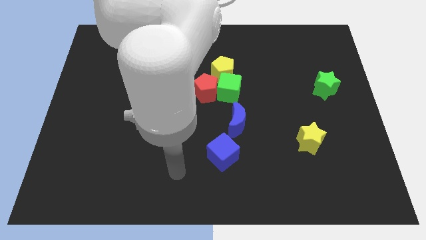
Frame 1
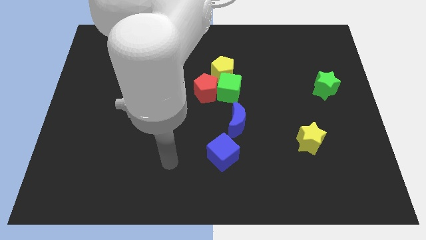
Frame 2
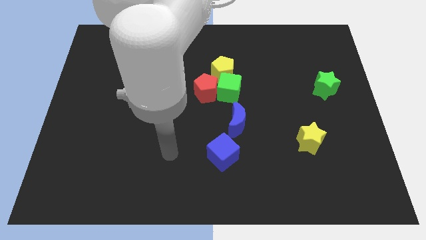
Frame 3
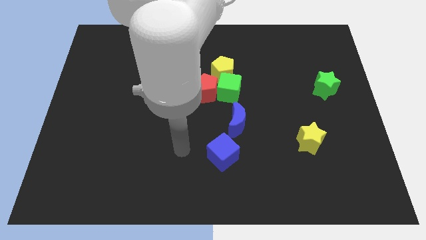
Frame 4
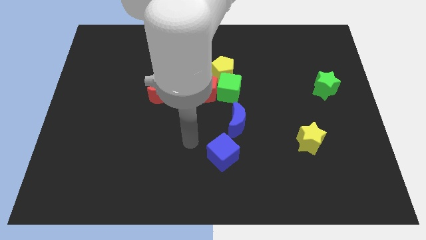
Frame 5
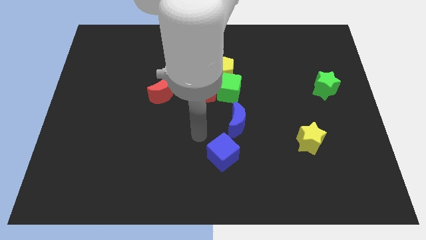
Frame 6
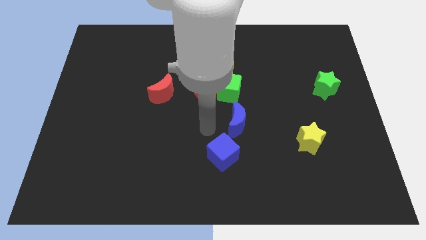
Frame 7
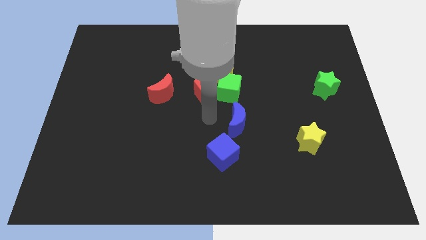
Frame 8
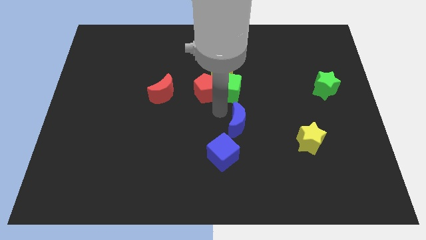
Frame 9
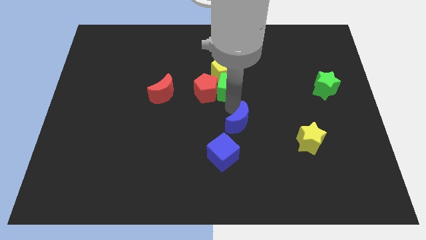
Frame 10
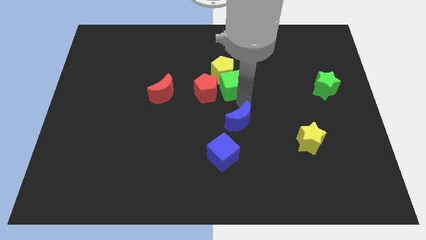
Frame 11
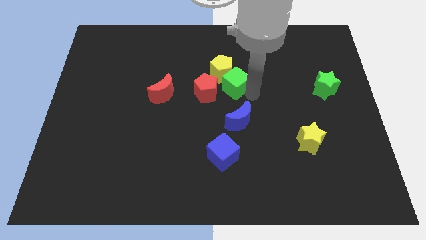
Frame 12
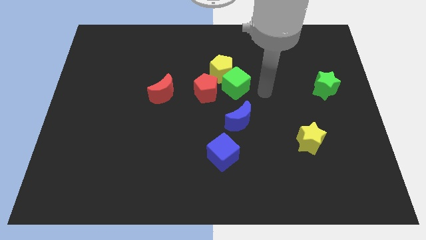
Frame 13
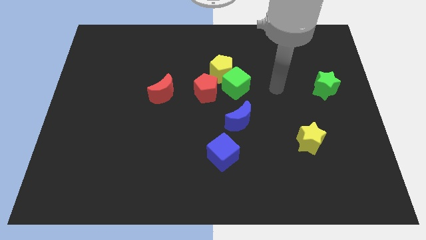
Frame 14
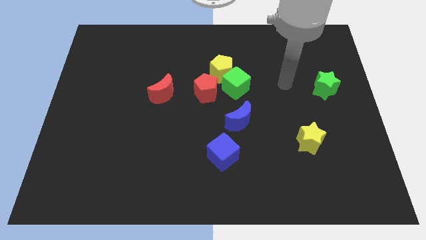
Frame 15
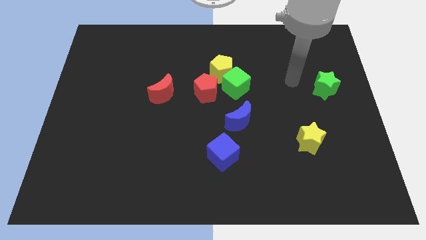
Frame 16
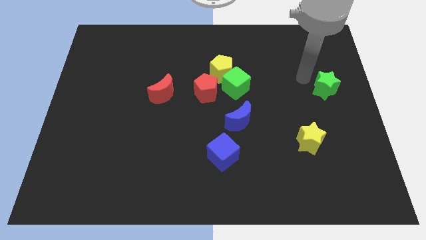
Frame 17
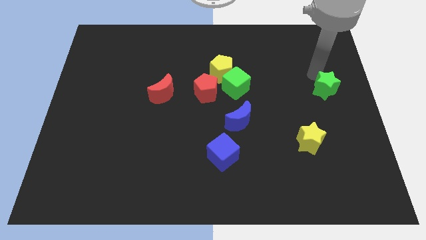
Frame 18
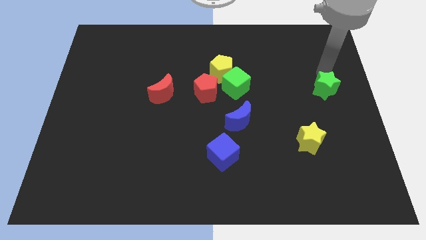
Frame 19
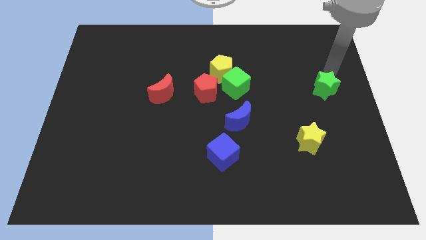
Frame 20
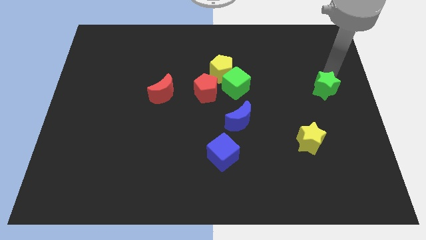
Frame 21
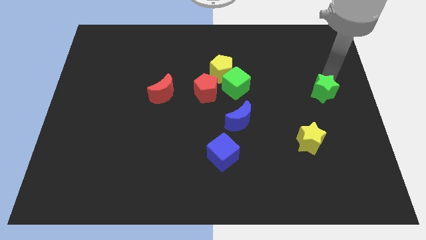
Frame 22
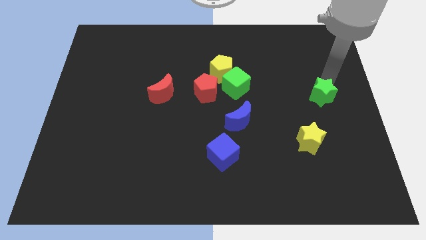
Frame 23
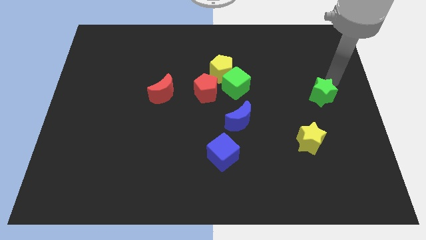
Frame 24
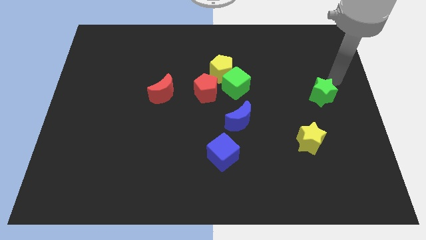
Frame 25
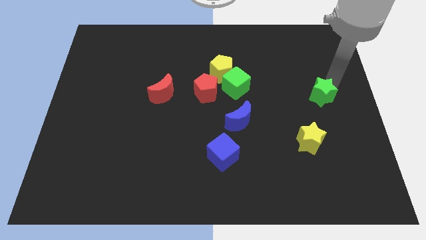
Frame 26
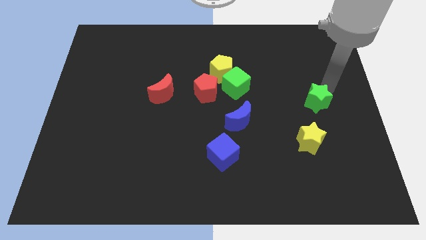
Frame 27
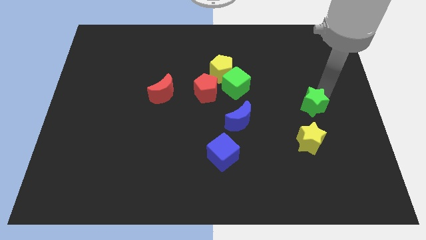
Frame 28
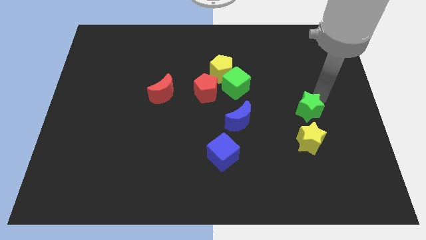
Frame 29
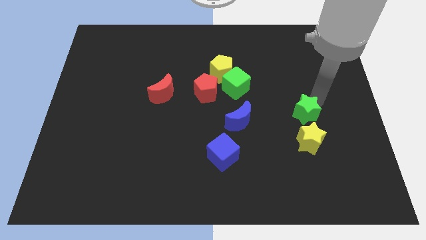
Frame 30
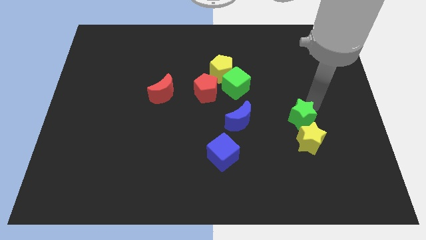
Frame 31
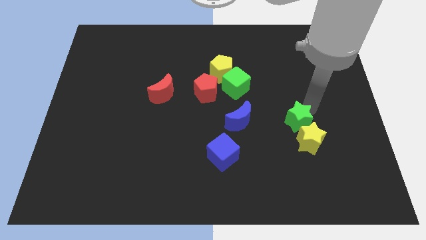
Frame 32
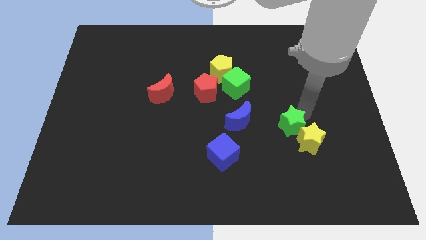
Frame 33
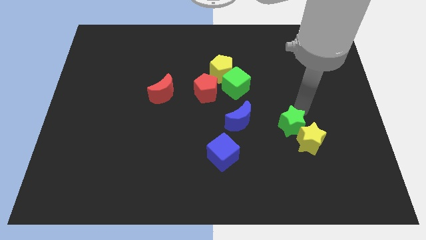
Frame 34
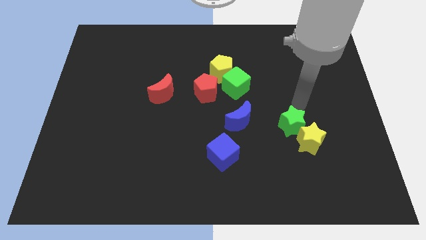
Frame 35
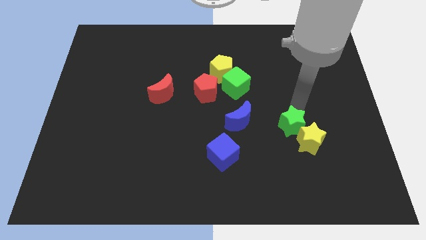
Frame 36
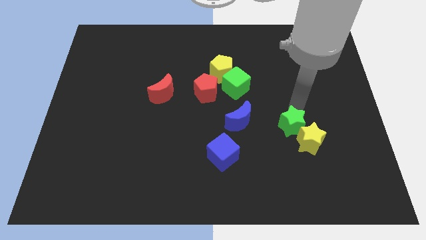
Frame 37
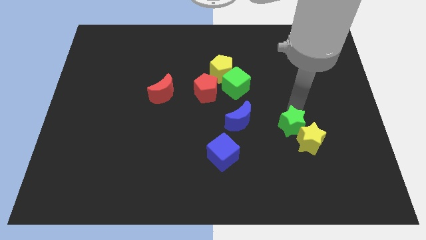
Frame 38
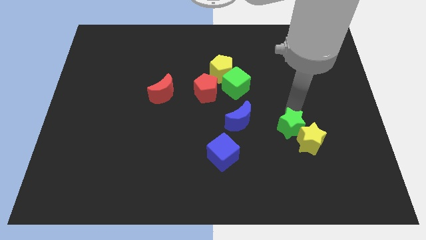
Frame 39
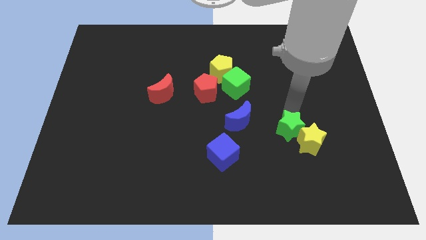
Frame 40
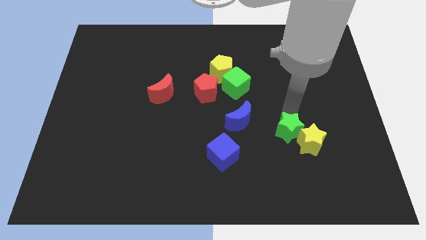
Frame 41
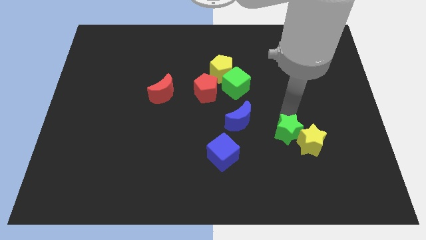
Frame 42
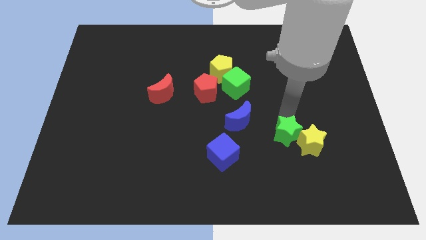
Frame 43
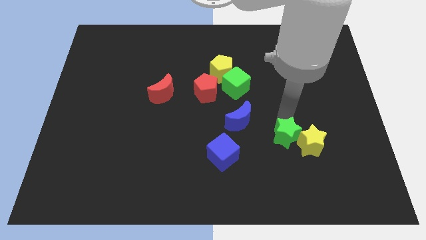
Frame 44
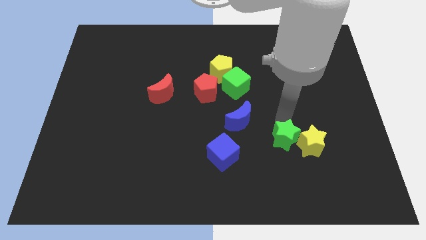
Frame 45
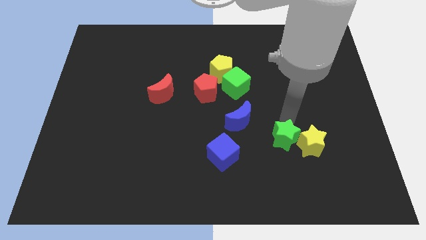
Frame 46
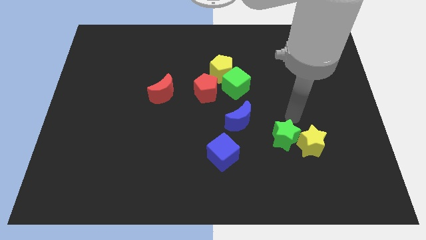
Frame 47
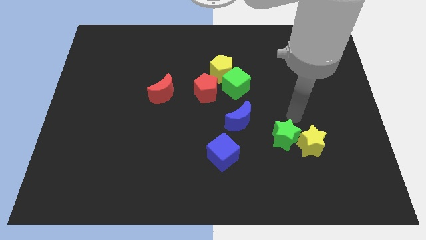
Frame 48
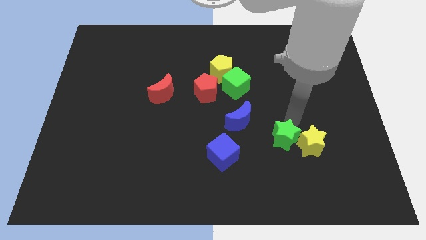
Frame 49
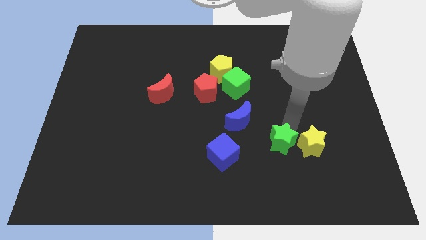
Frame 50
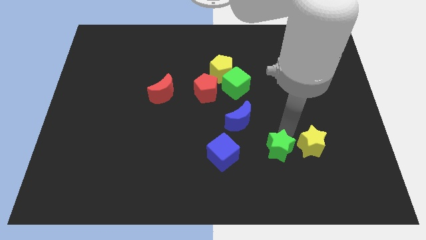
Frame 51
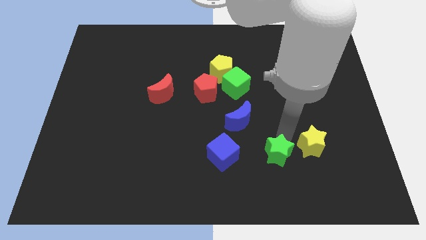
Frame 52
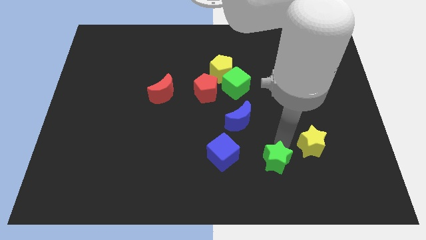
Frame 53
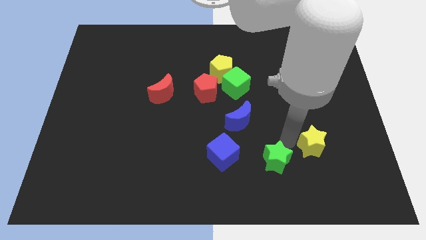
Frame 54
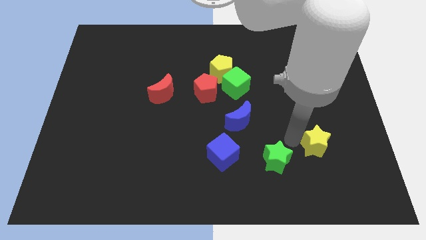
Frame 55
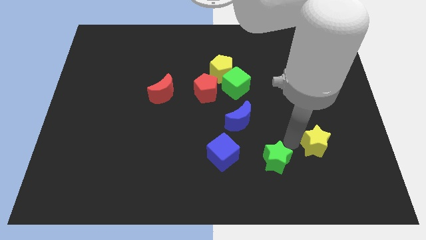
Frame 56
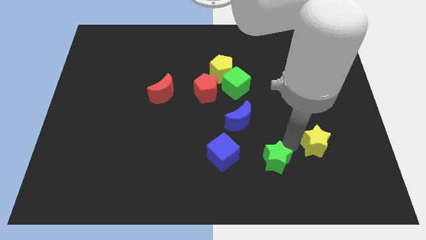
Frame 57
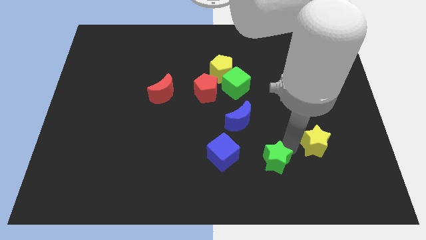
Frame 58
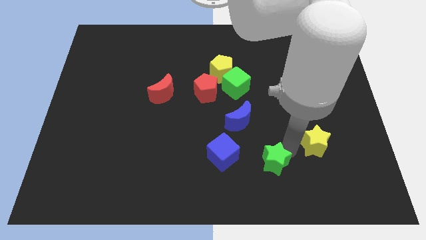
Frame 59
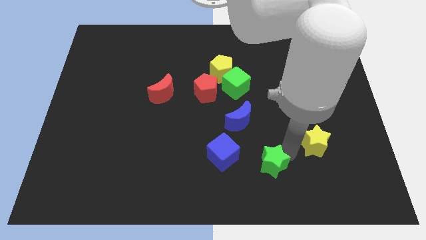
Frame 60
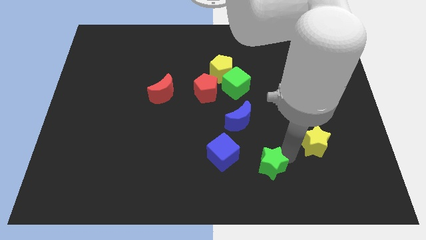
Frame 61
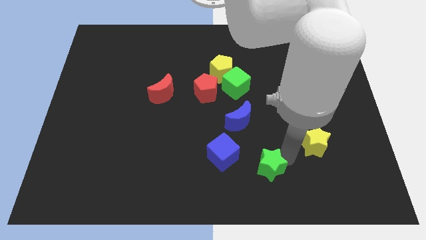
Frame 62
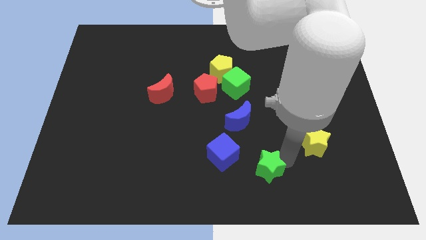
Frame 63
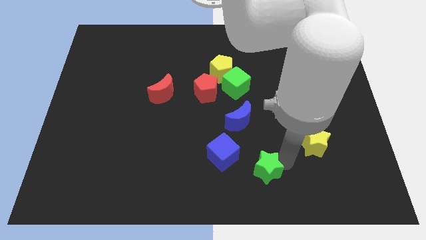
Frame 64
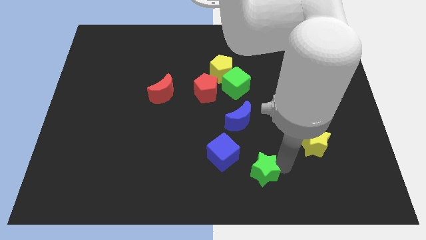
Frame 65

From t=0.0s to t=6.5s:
push the green star to the bottom
